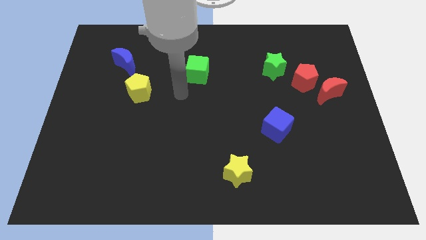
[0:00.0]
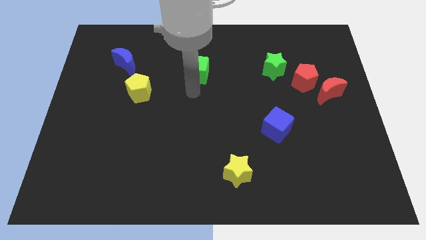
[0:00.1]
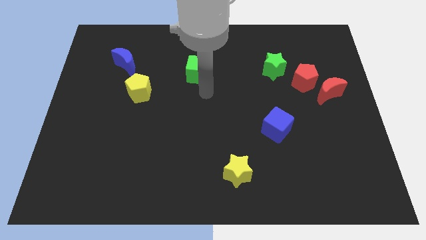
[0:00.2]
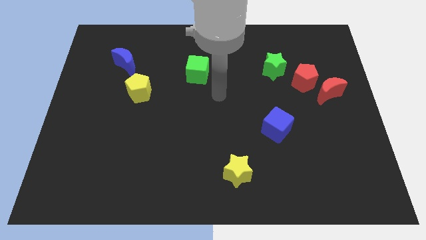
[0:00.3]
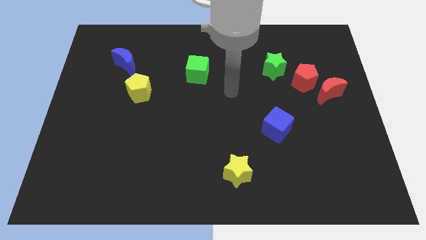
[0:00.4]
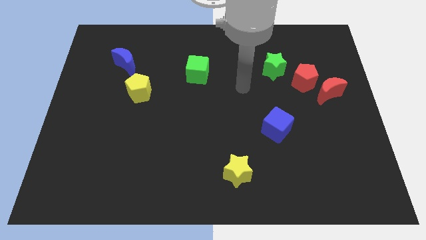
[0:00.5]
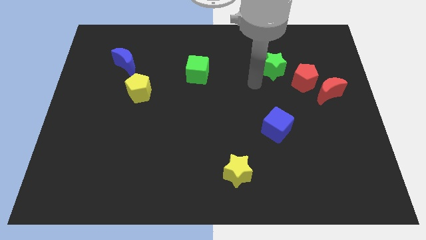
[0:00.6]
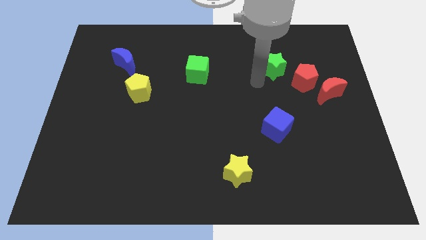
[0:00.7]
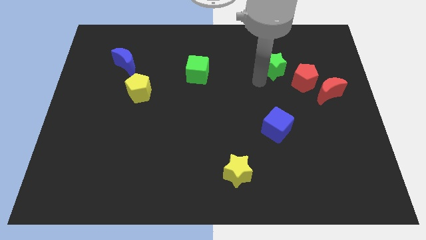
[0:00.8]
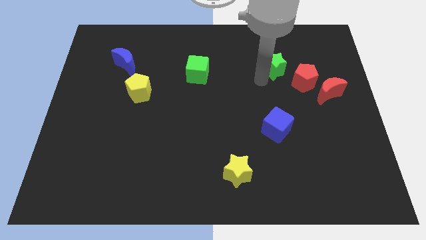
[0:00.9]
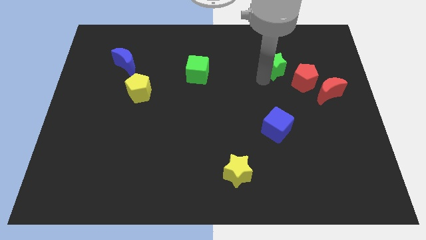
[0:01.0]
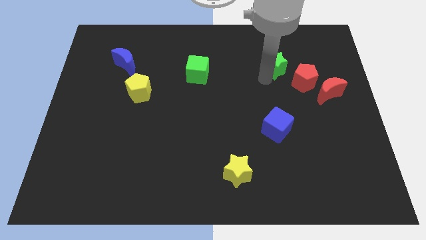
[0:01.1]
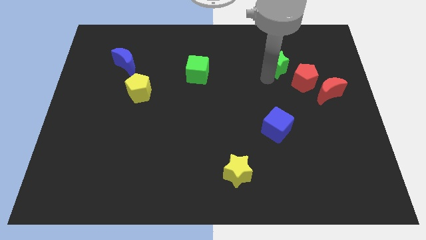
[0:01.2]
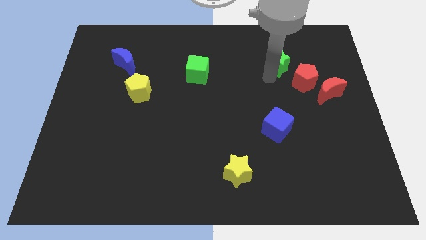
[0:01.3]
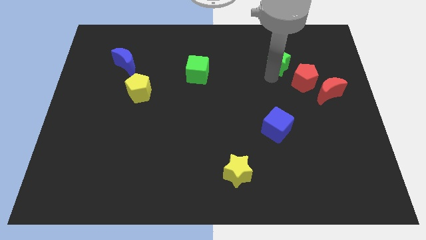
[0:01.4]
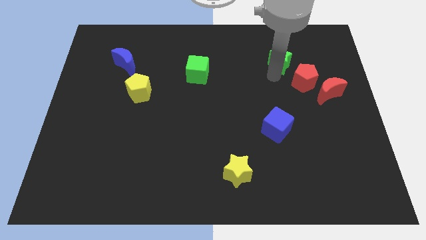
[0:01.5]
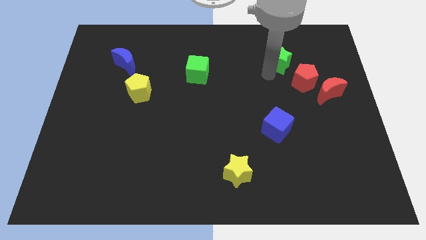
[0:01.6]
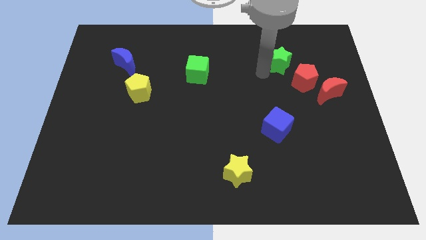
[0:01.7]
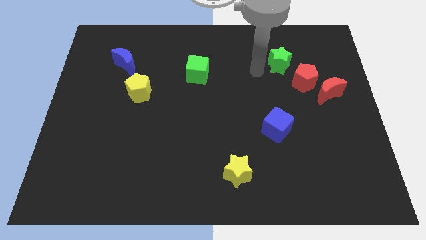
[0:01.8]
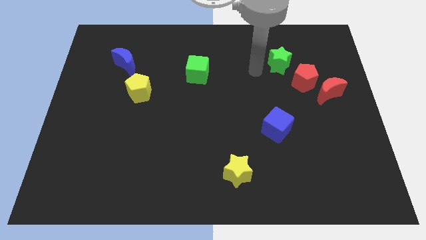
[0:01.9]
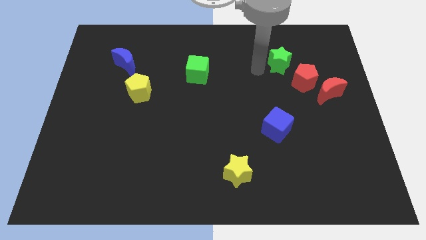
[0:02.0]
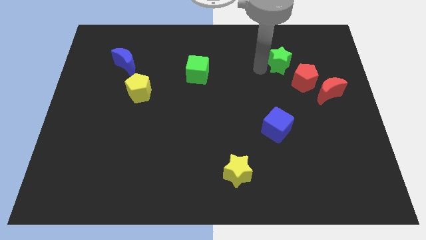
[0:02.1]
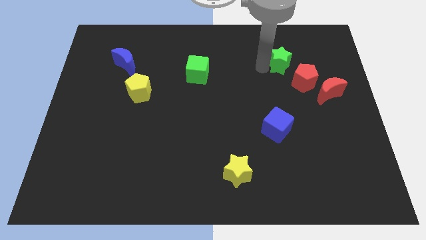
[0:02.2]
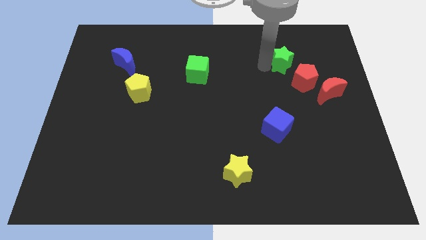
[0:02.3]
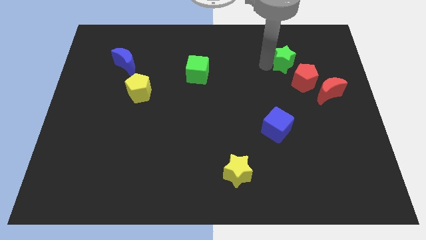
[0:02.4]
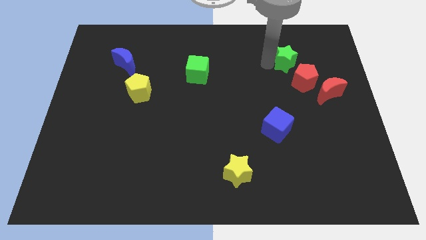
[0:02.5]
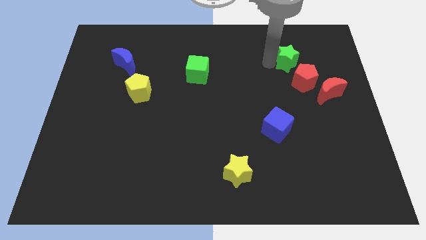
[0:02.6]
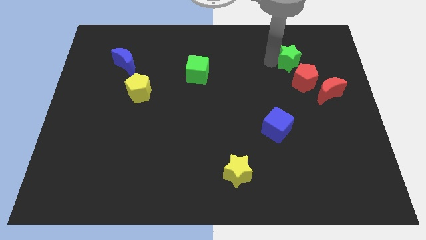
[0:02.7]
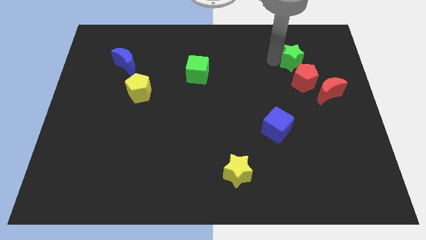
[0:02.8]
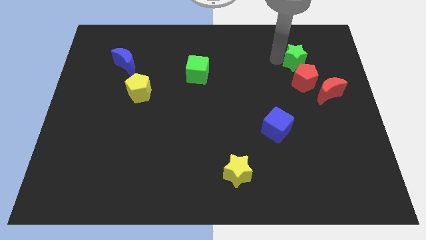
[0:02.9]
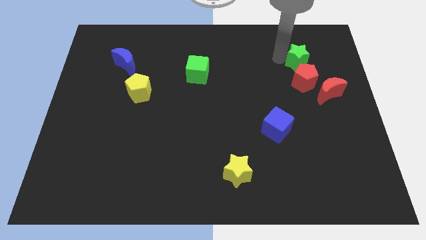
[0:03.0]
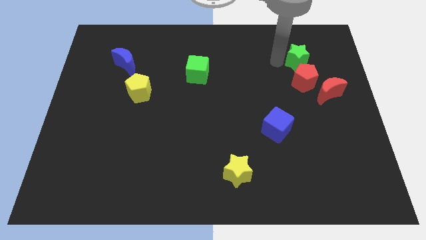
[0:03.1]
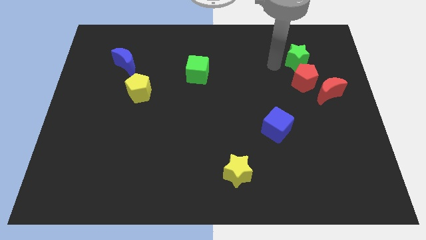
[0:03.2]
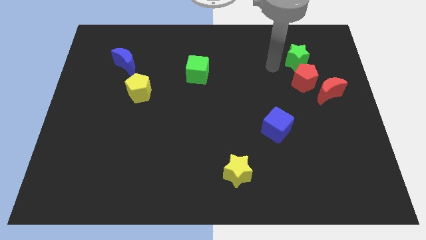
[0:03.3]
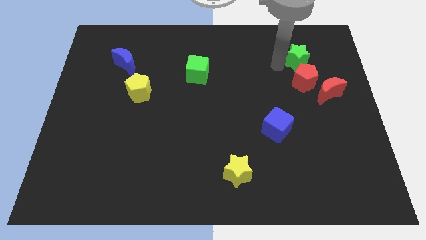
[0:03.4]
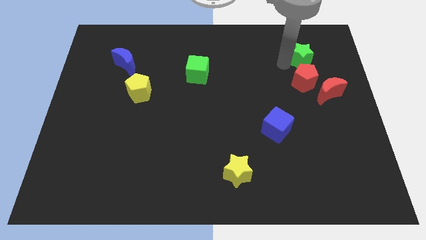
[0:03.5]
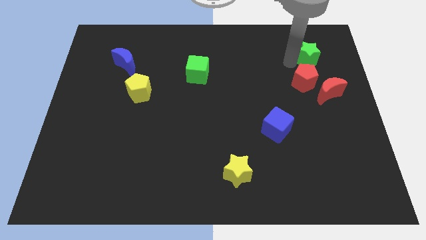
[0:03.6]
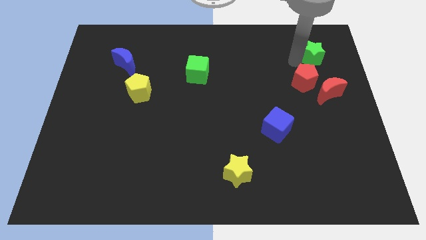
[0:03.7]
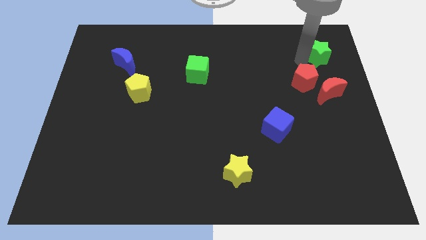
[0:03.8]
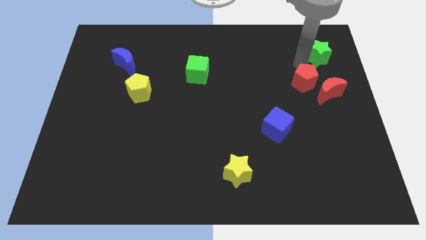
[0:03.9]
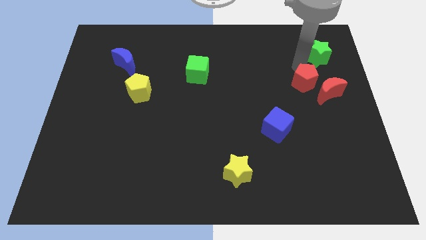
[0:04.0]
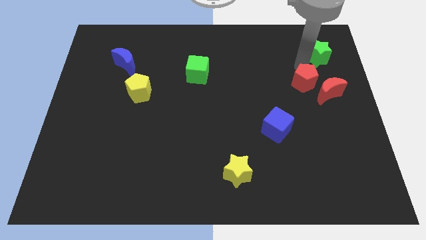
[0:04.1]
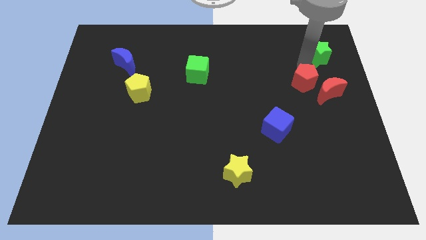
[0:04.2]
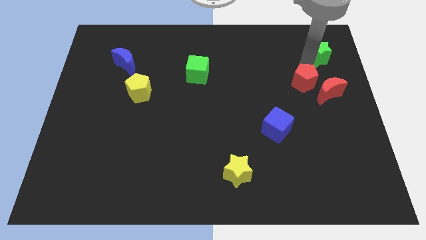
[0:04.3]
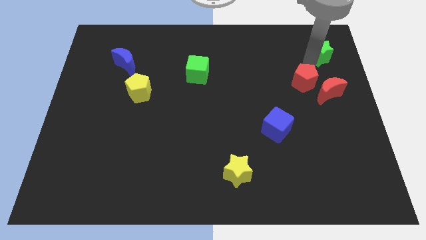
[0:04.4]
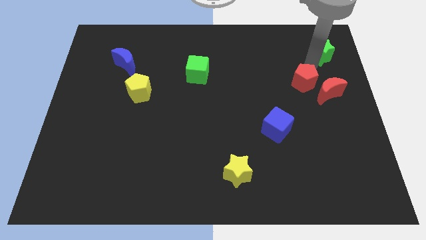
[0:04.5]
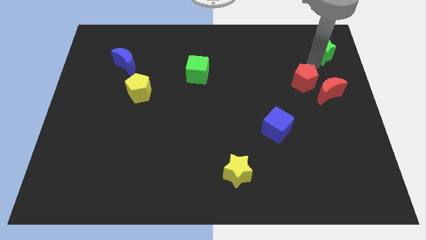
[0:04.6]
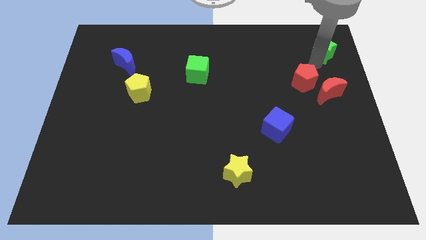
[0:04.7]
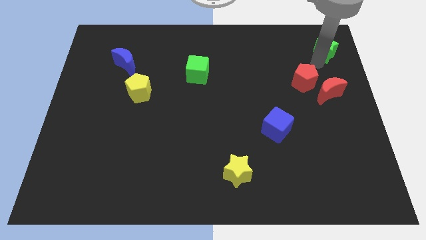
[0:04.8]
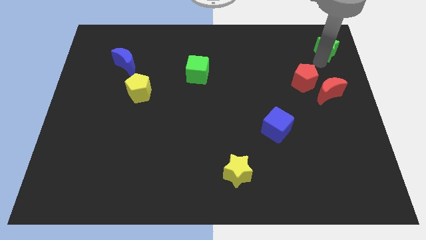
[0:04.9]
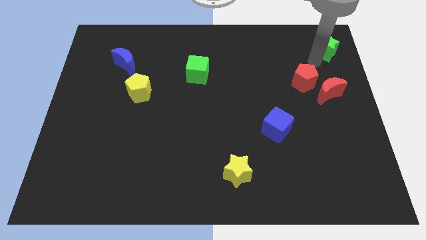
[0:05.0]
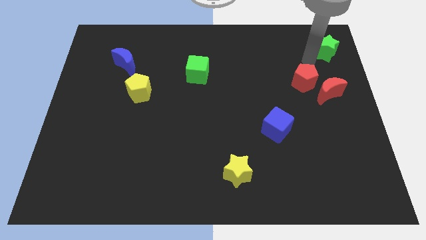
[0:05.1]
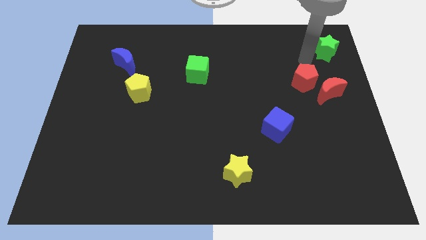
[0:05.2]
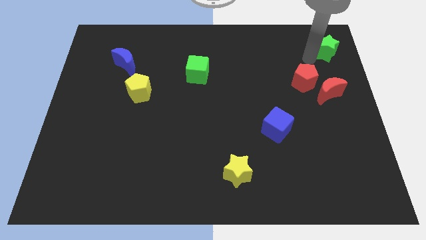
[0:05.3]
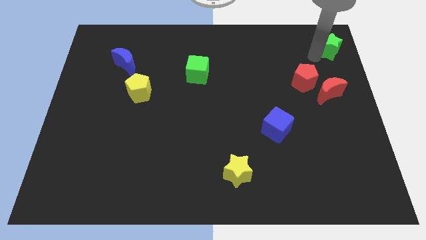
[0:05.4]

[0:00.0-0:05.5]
move the green star to the top right corner
